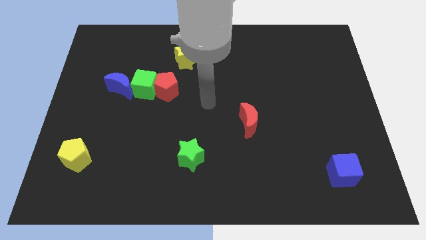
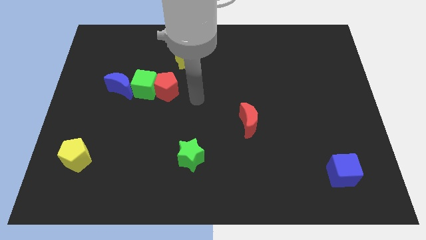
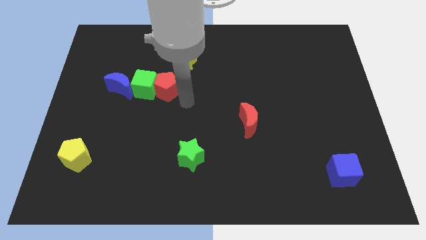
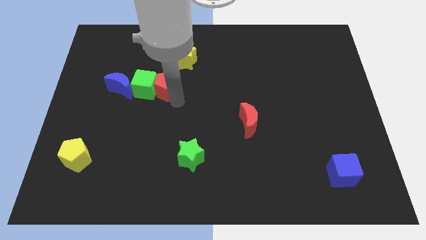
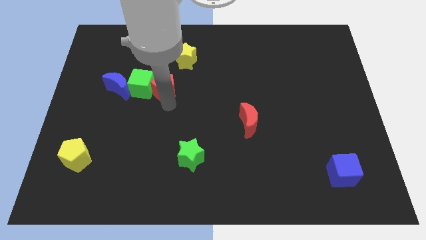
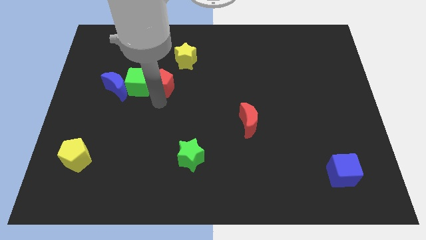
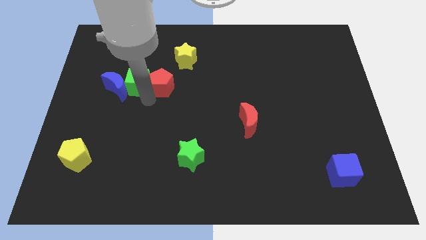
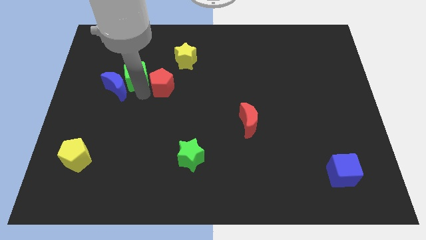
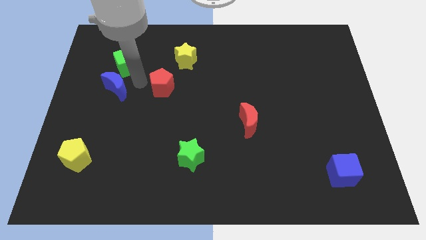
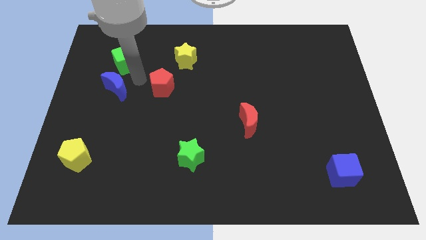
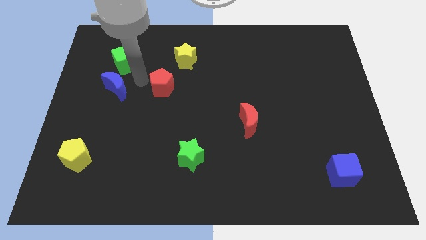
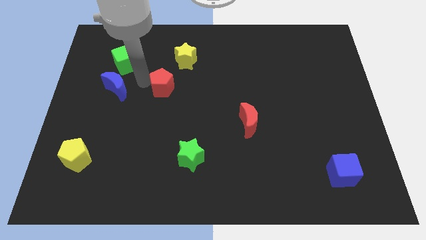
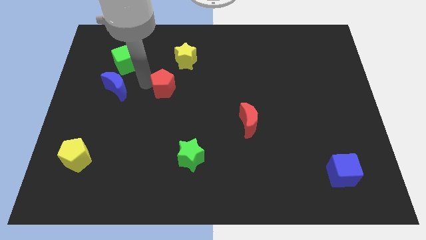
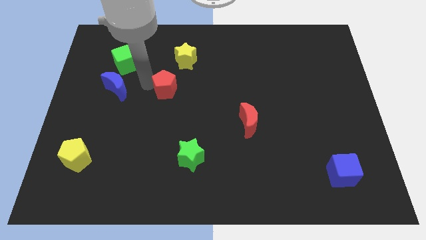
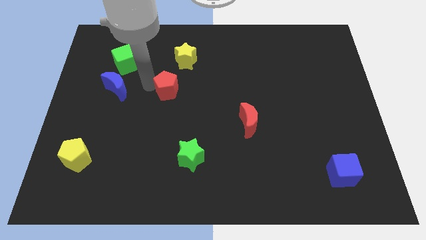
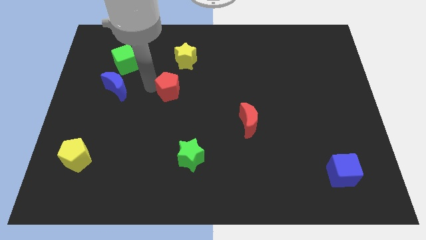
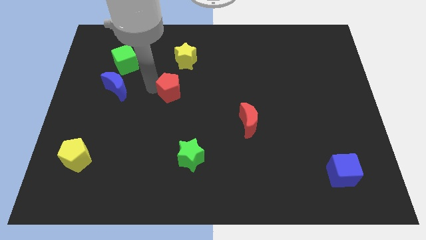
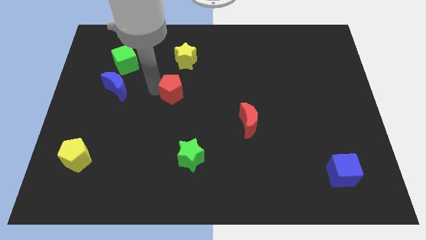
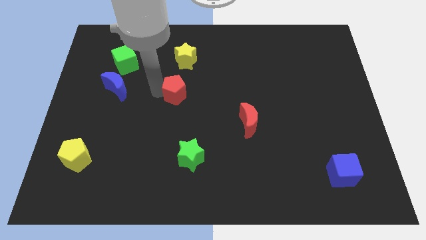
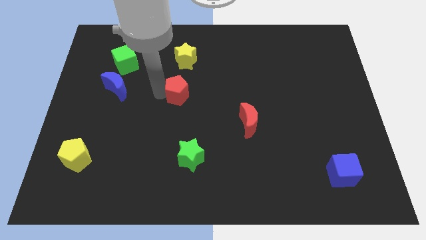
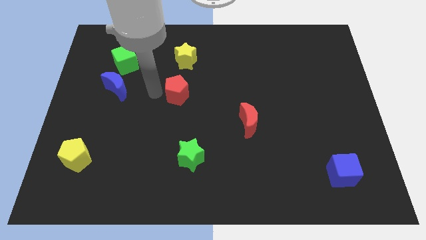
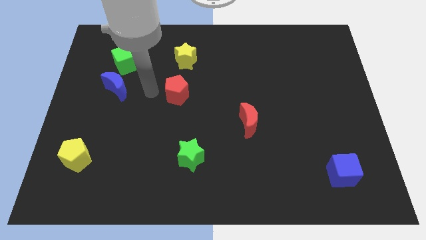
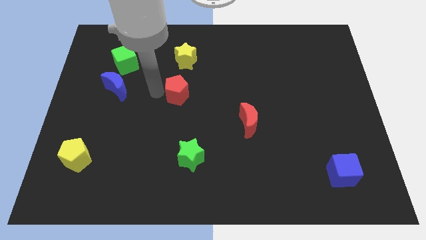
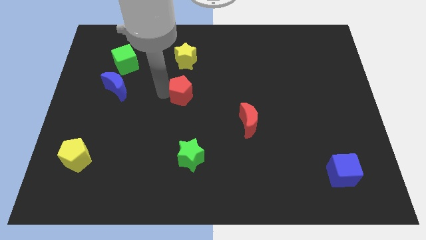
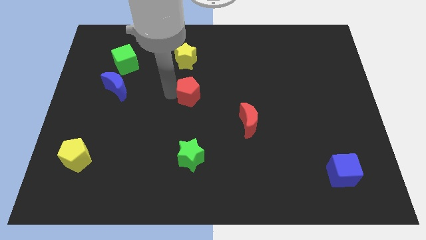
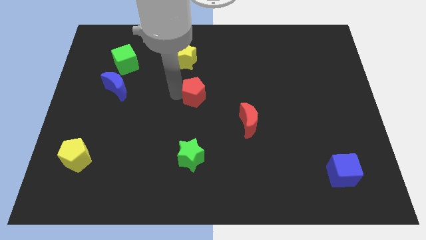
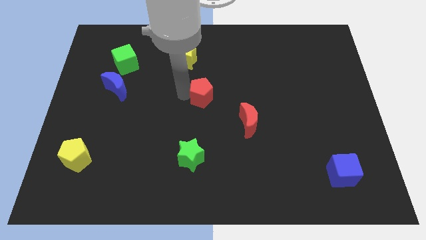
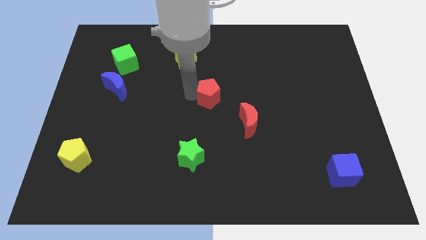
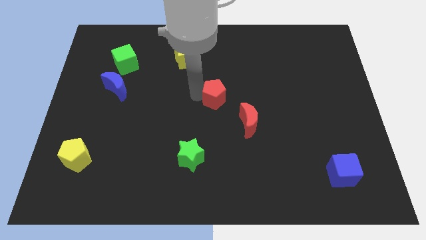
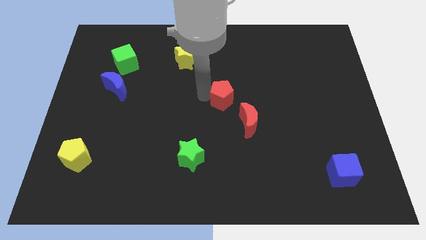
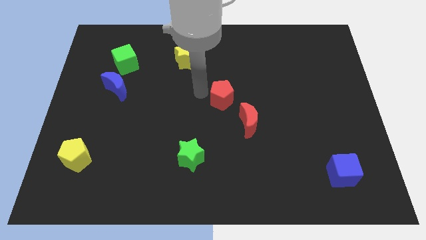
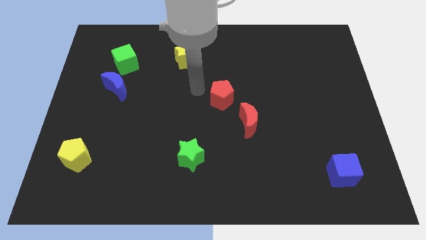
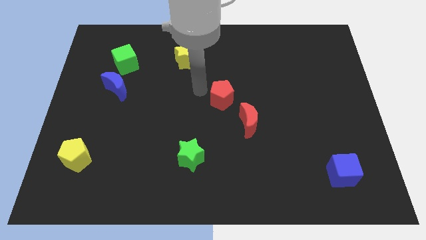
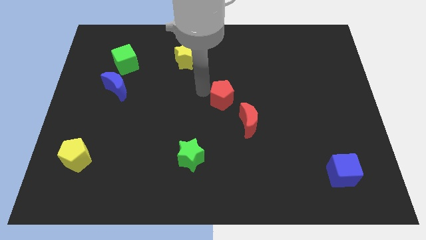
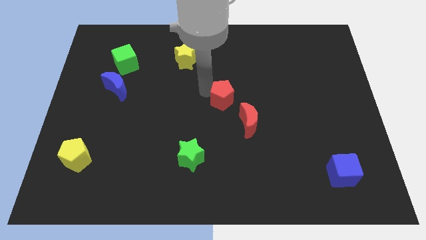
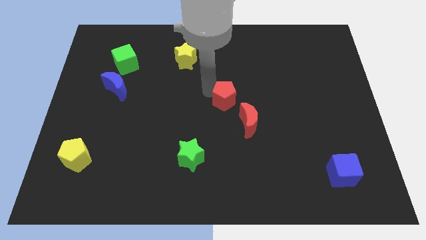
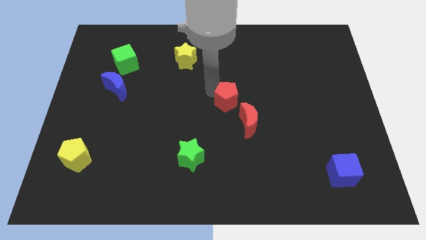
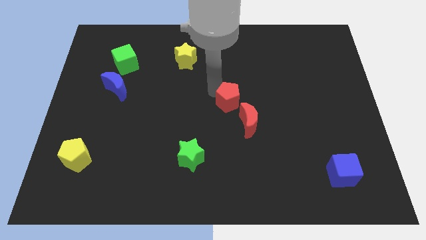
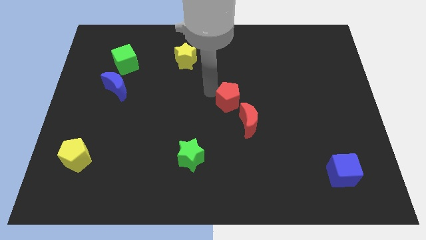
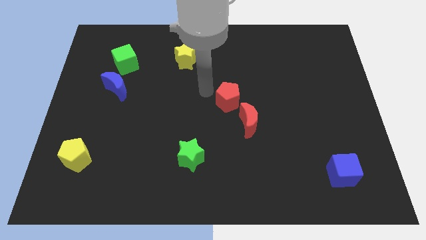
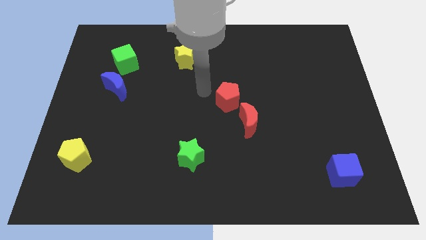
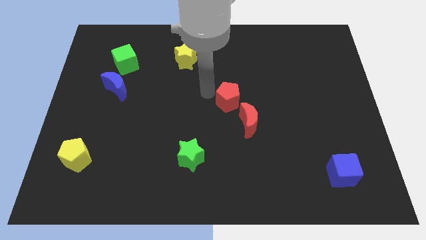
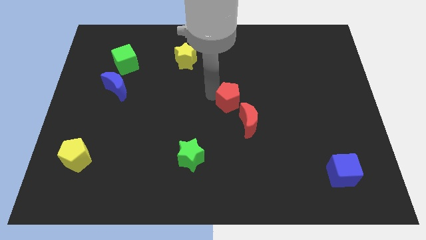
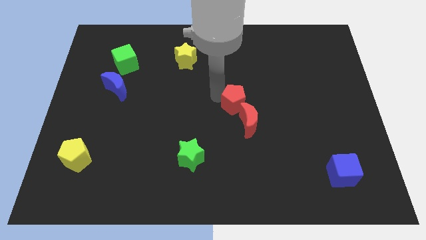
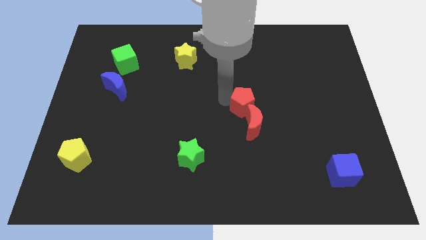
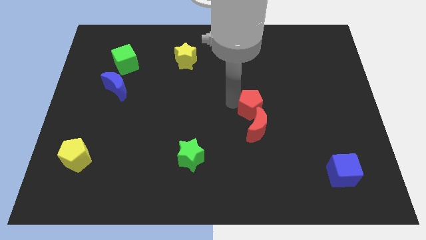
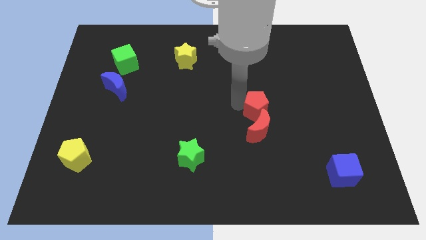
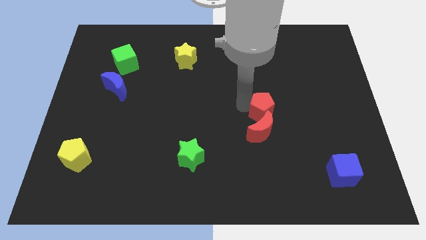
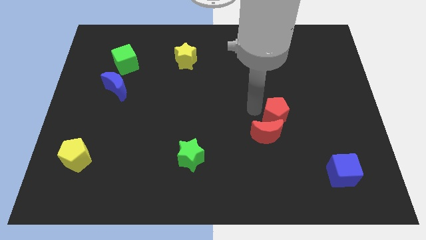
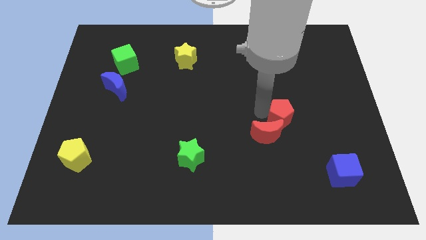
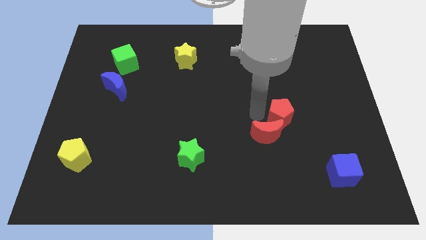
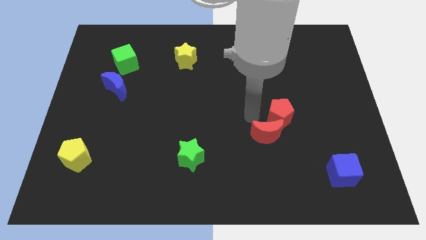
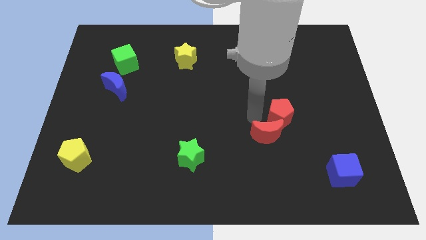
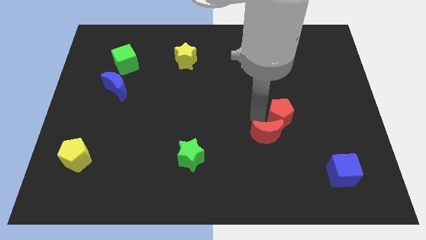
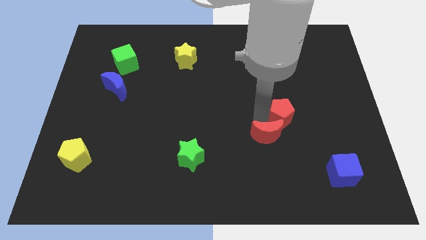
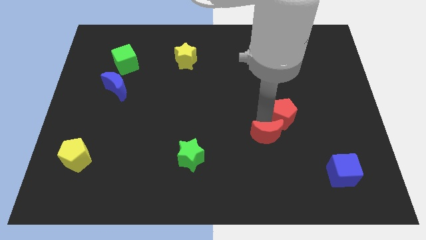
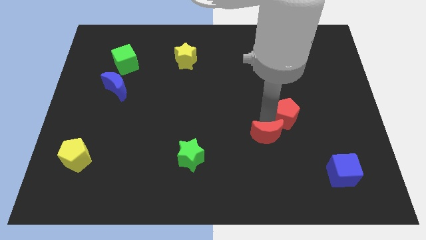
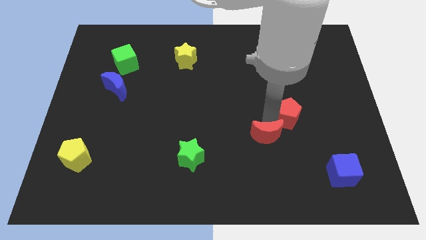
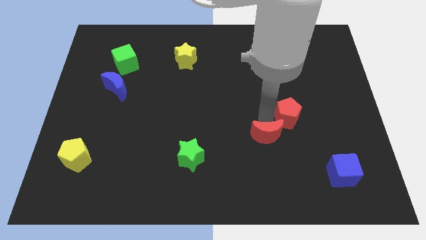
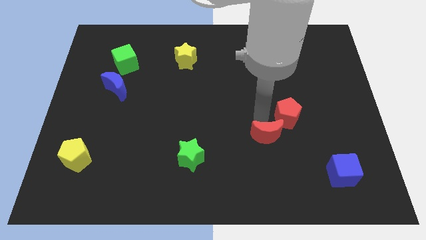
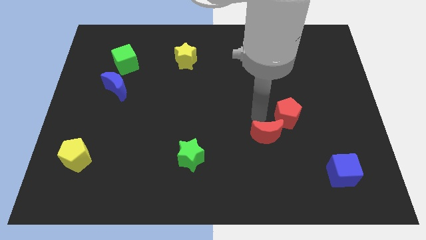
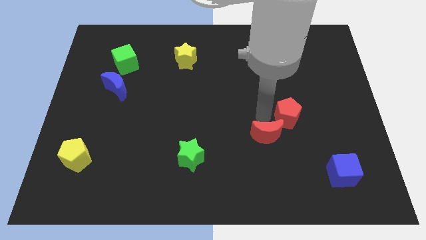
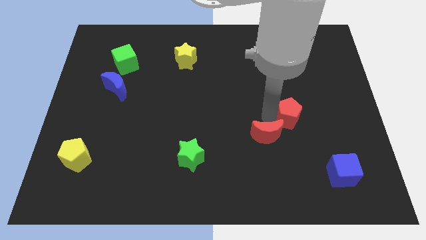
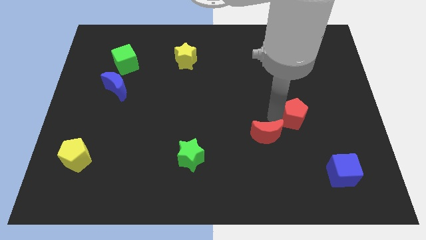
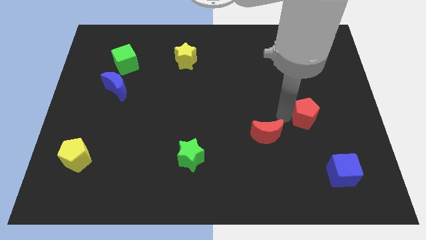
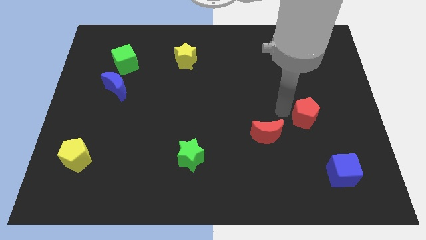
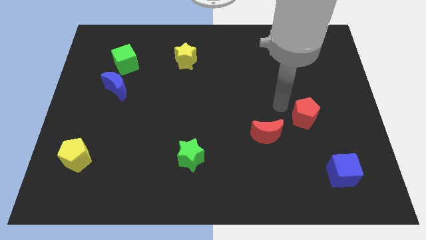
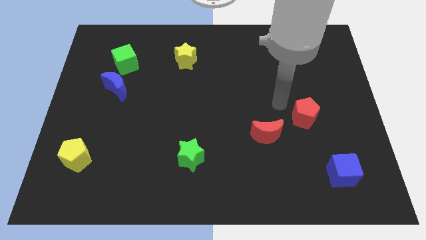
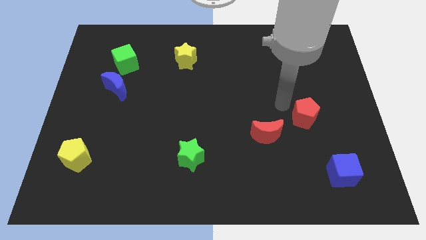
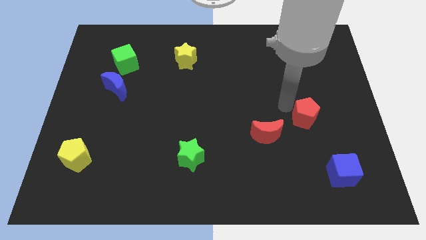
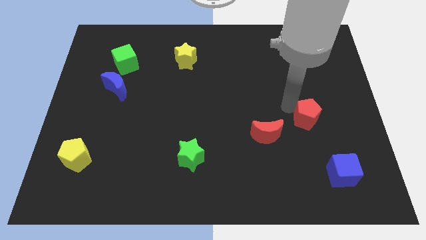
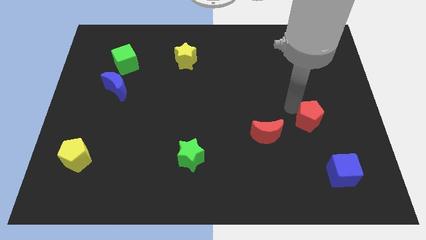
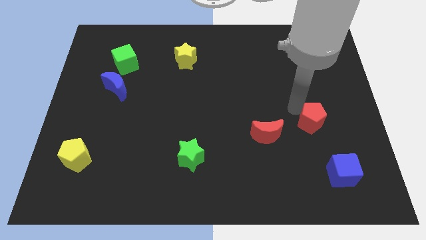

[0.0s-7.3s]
move the red pentagon to the top side of the blue cube
